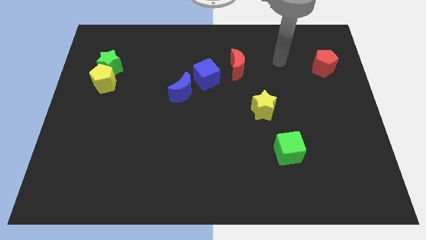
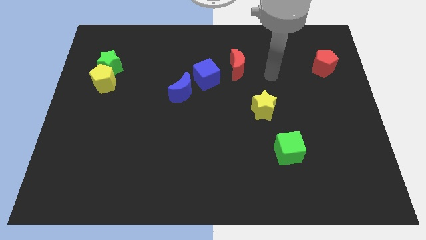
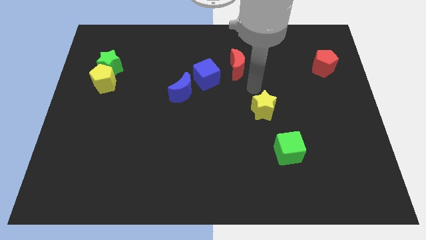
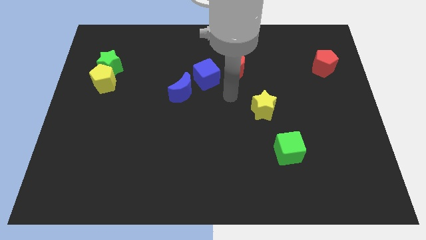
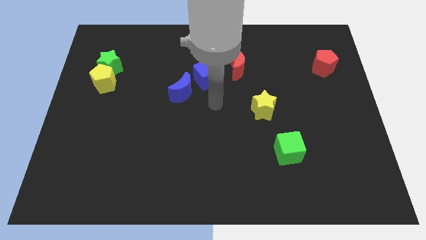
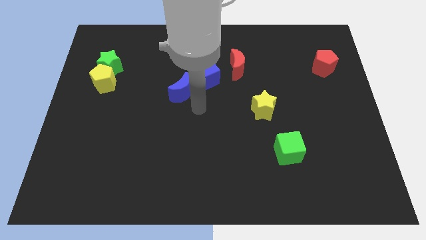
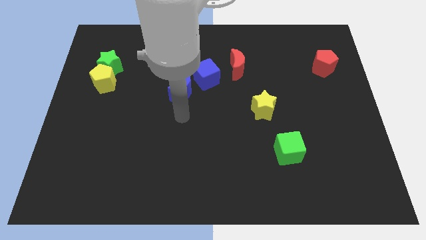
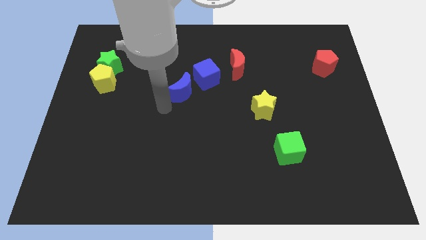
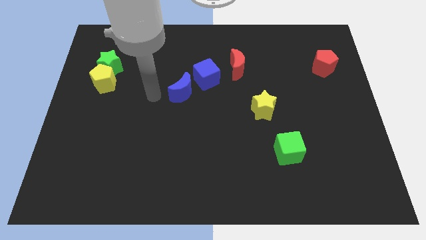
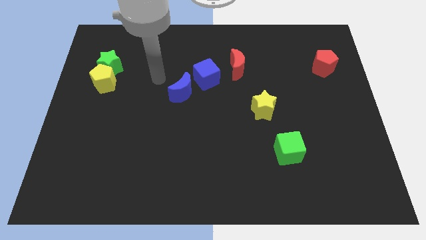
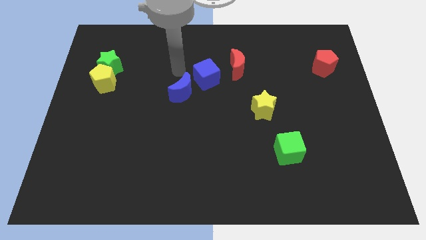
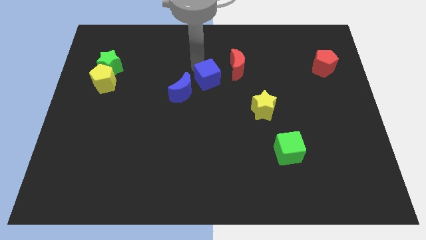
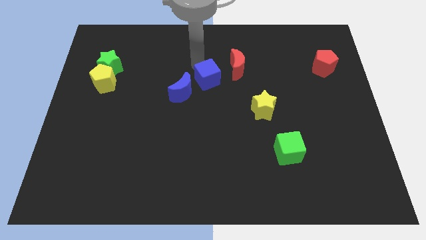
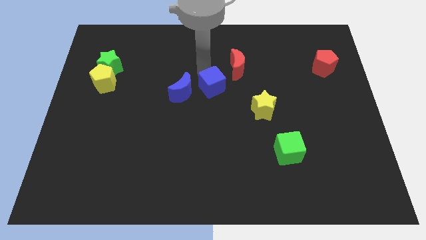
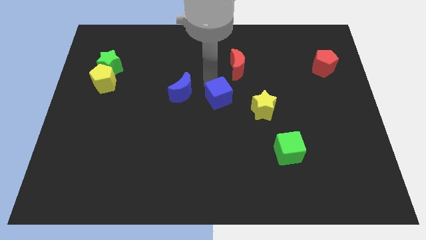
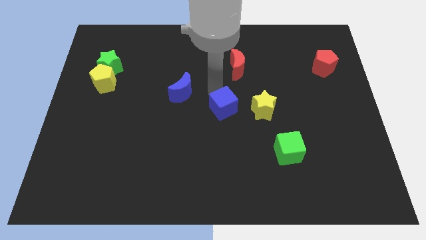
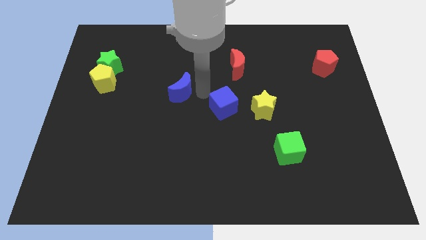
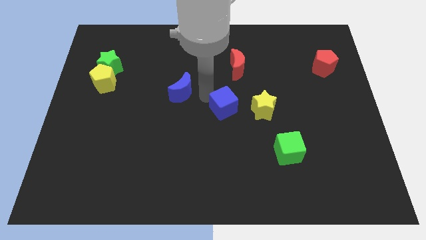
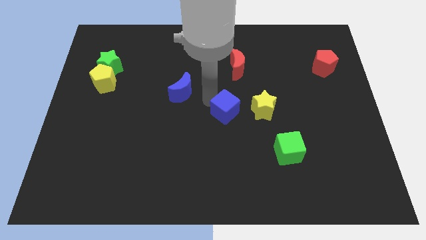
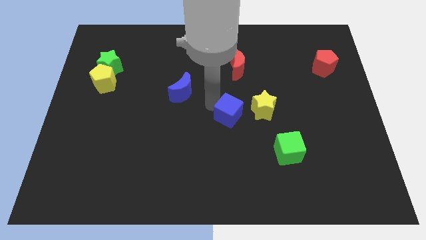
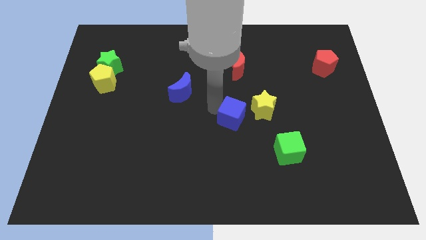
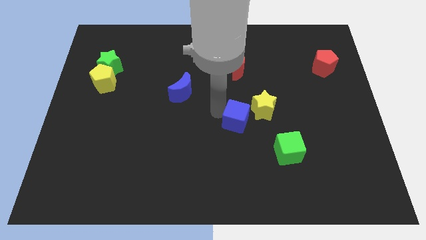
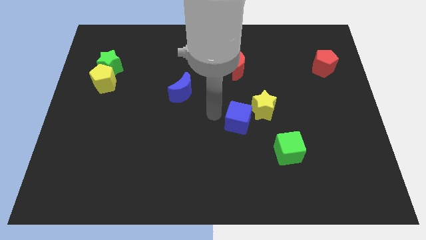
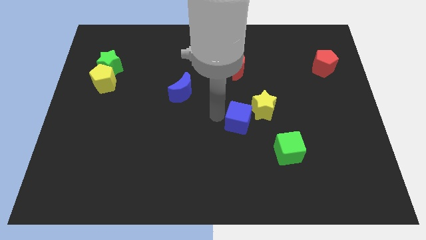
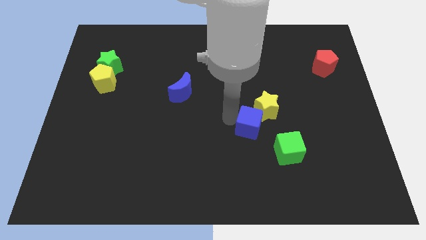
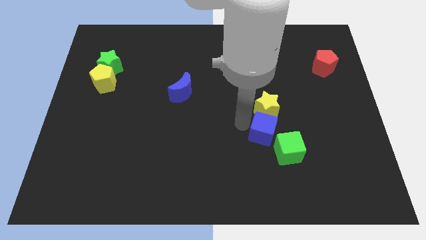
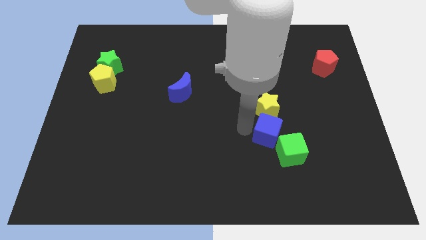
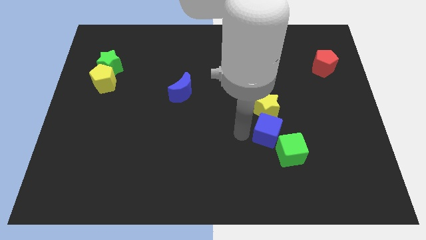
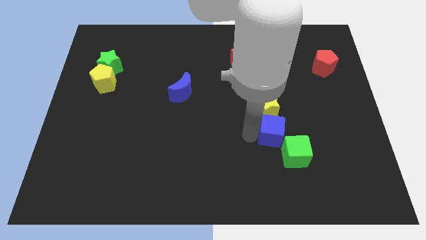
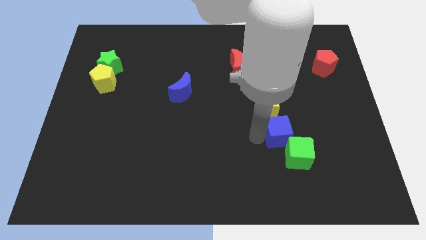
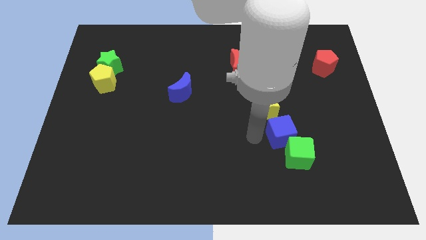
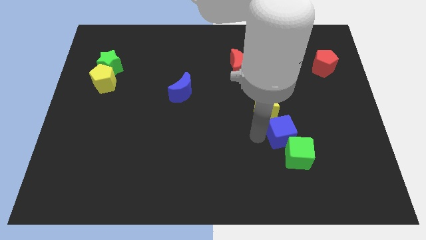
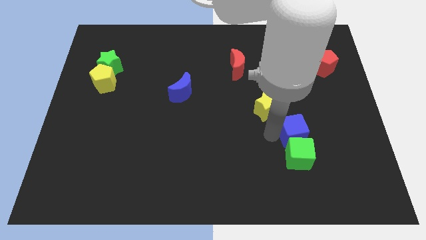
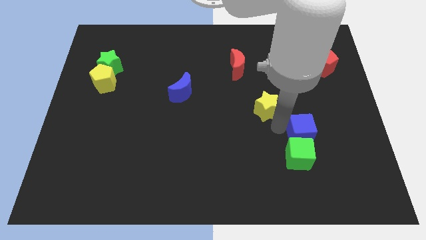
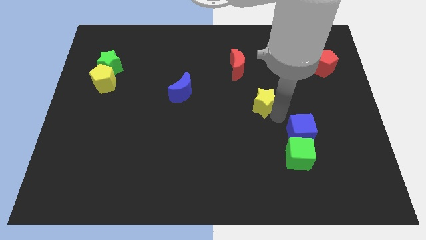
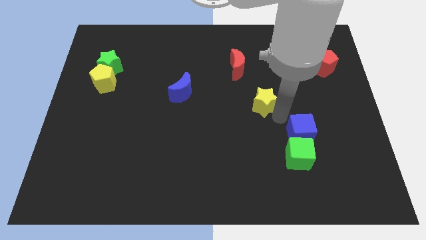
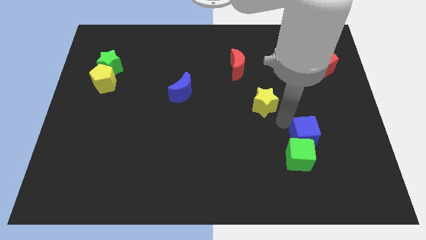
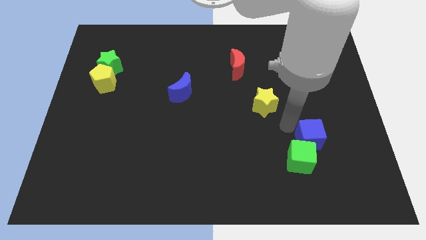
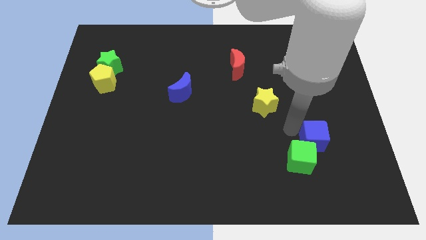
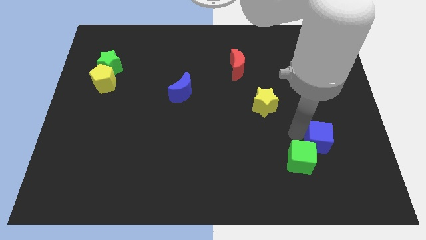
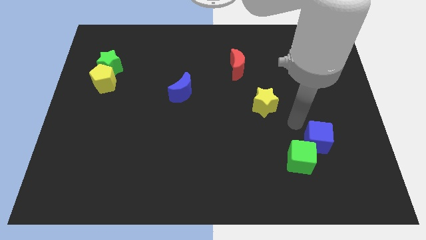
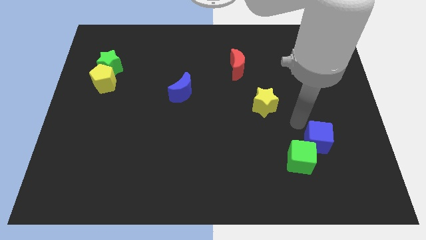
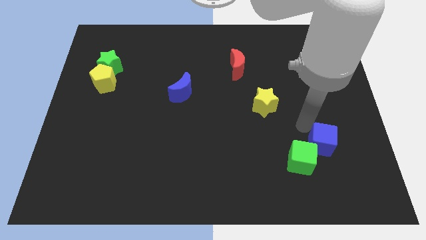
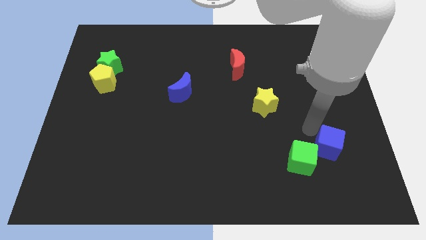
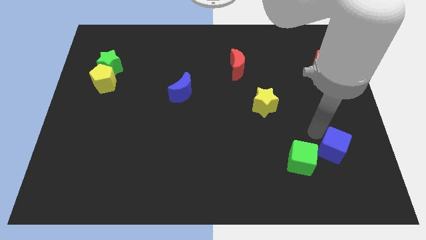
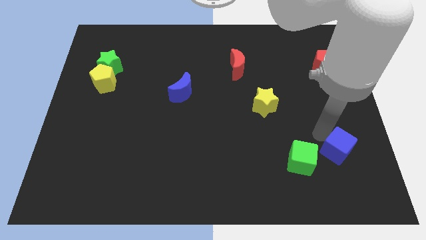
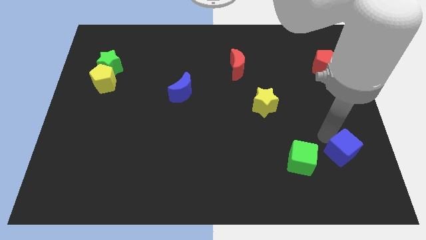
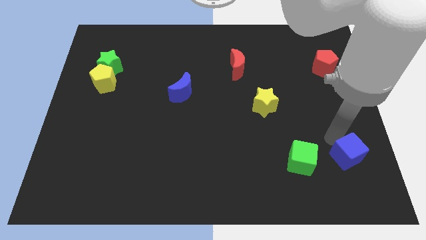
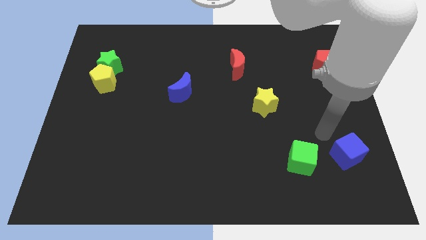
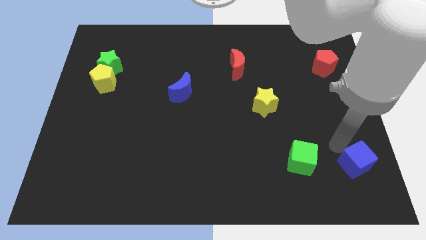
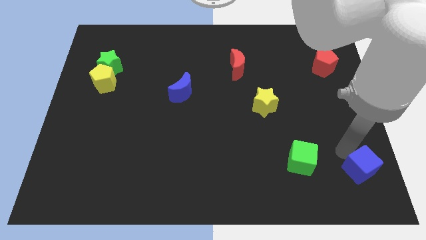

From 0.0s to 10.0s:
push the blue cube to the bottom right corner

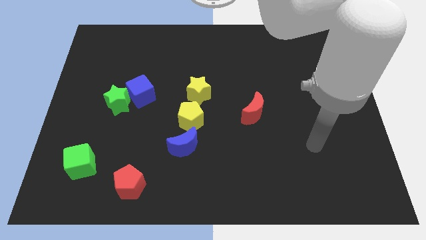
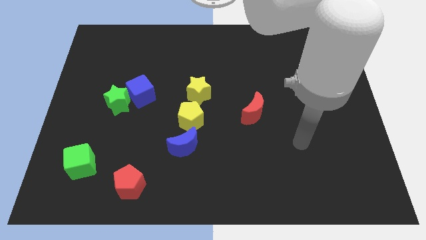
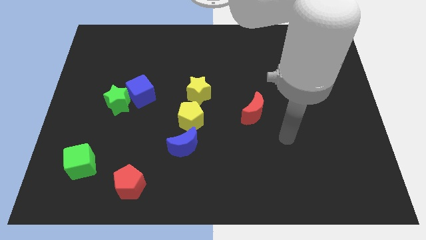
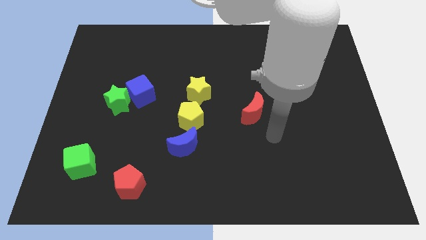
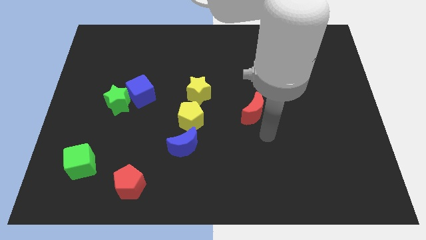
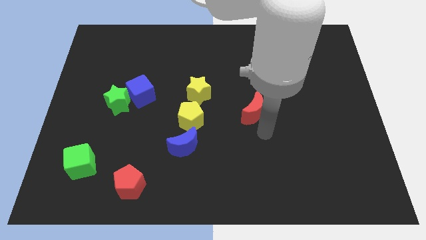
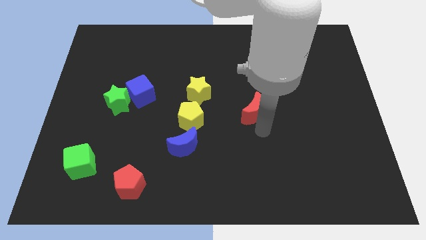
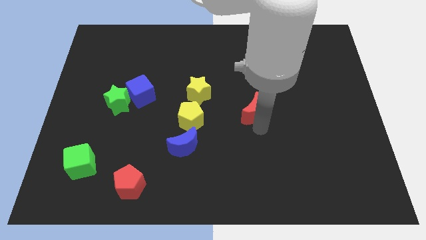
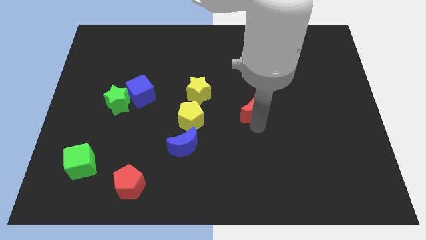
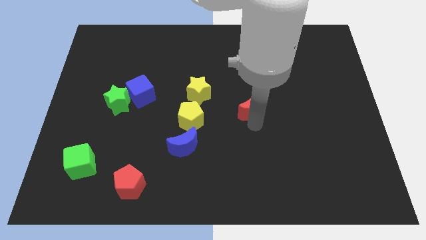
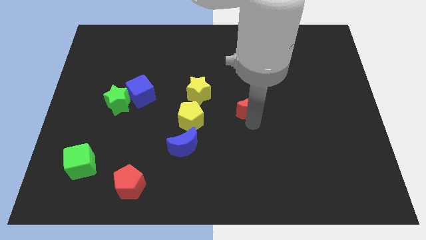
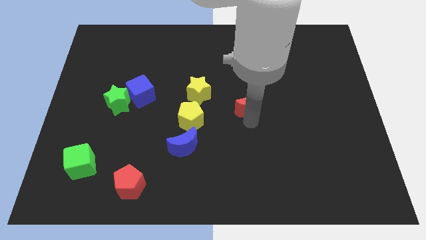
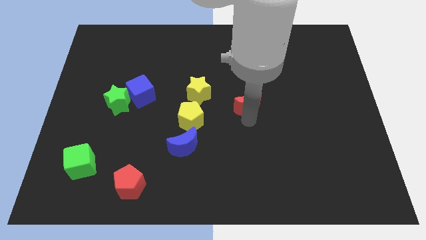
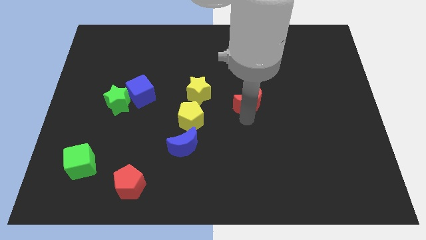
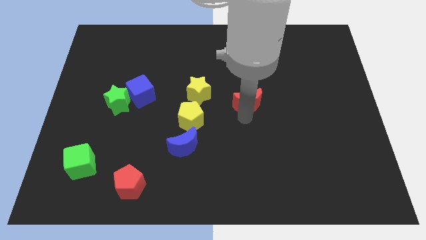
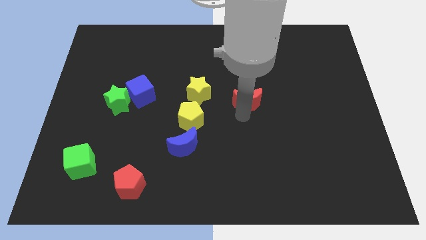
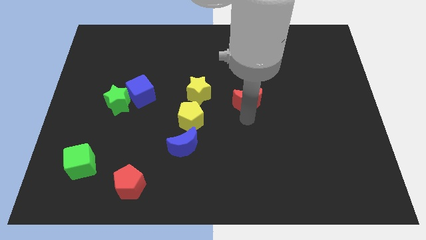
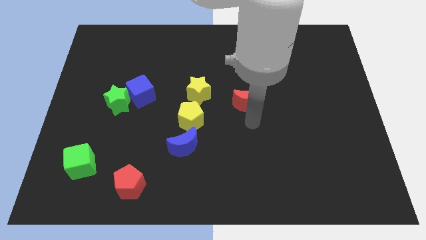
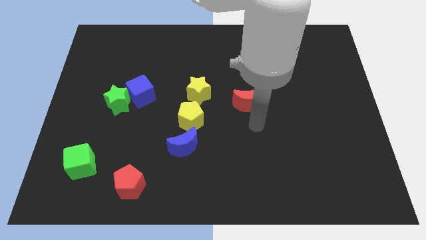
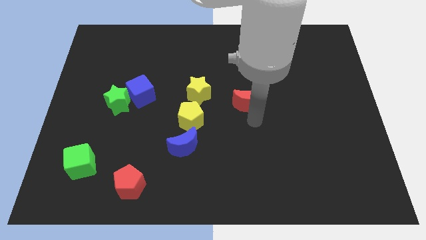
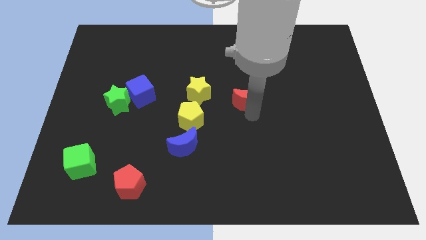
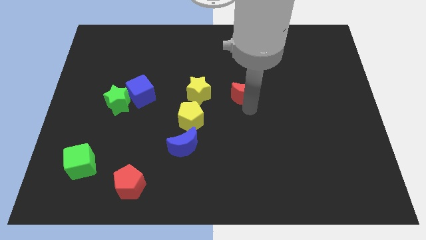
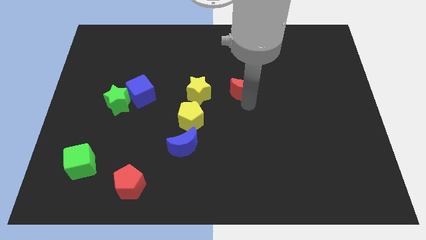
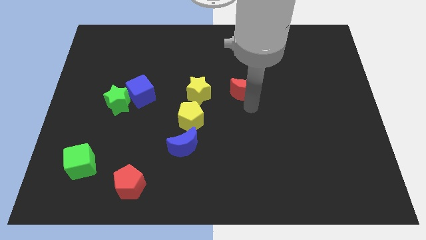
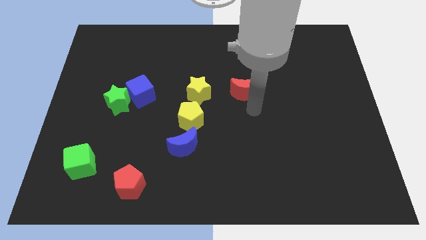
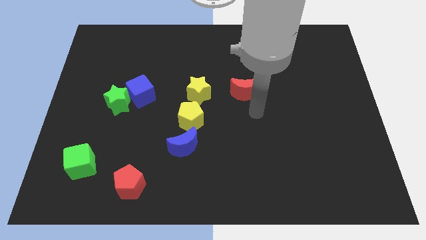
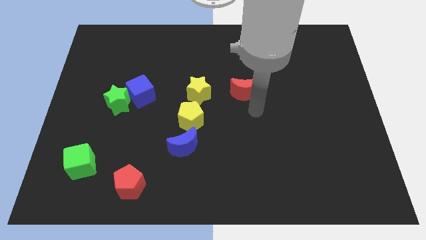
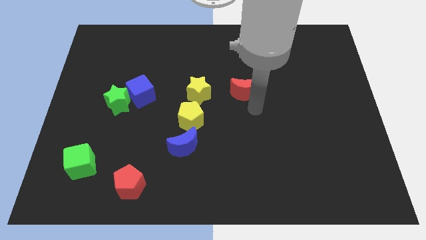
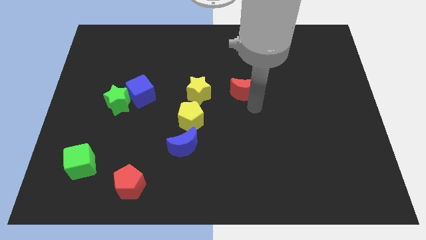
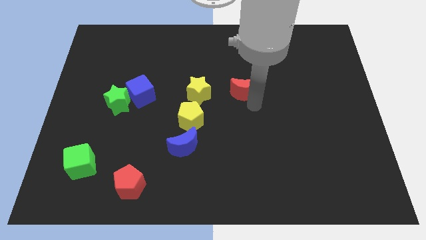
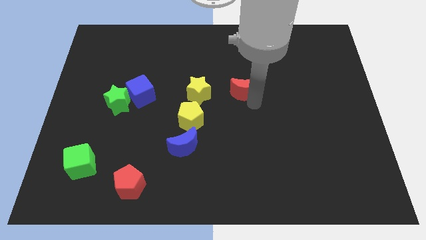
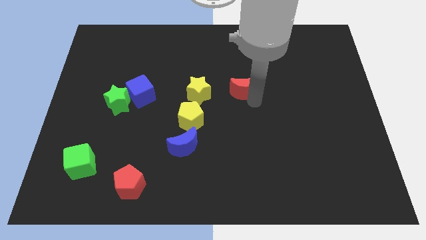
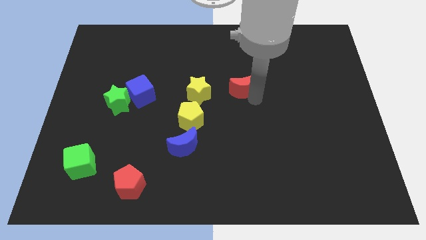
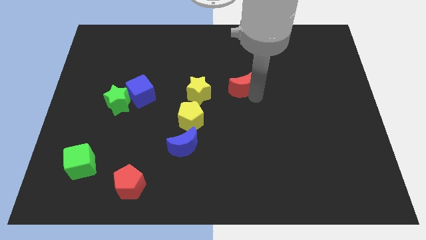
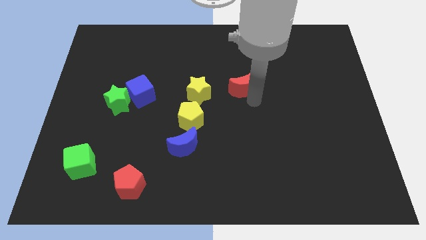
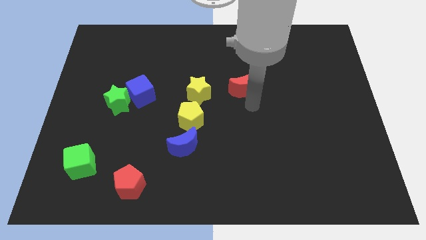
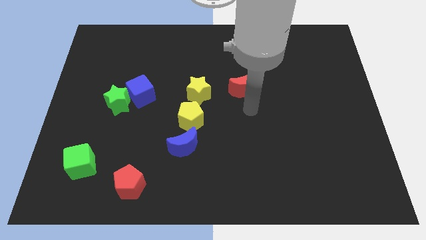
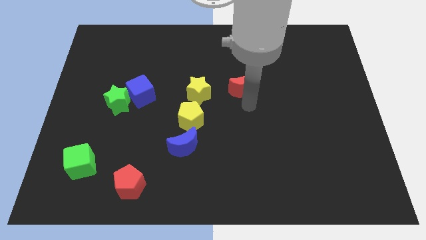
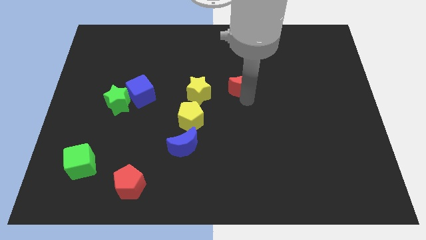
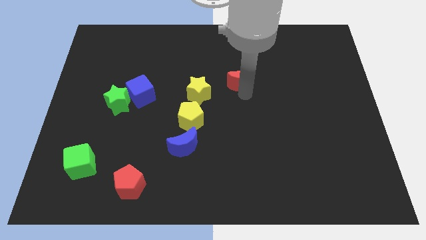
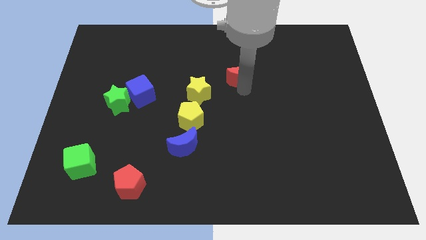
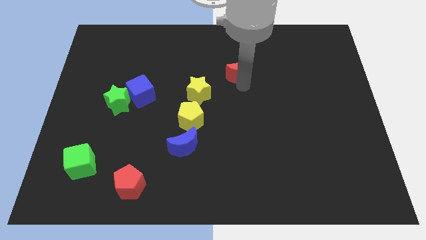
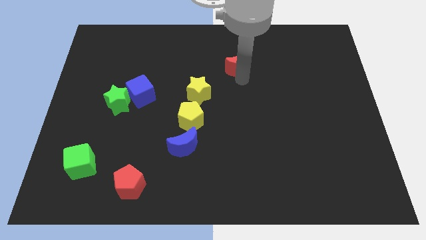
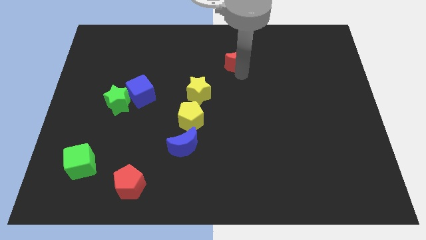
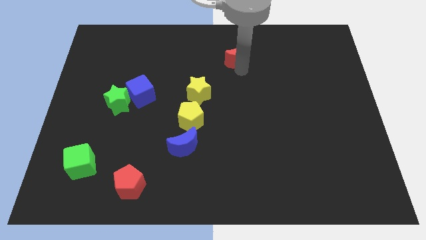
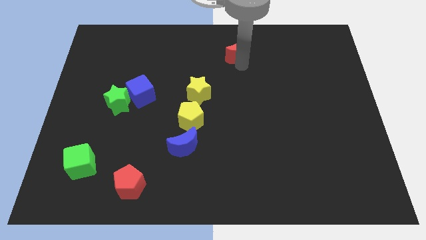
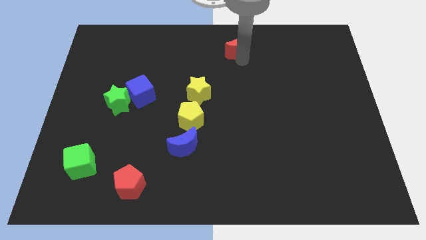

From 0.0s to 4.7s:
put the red moon to the towards your base
